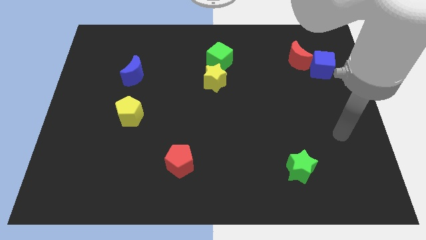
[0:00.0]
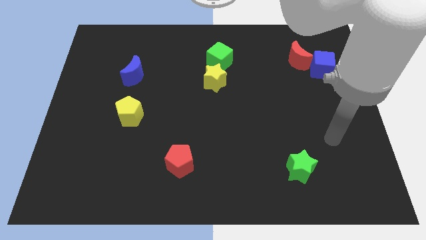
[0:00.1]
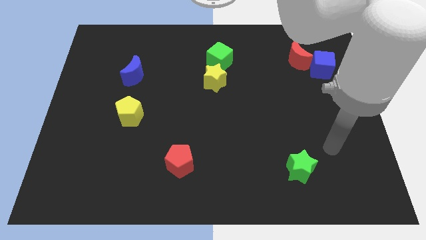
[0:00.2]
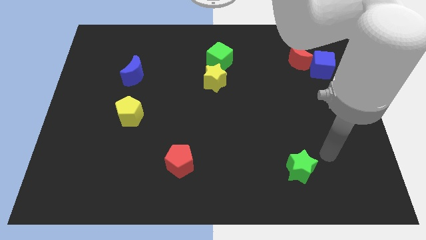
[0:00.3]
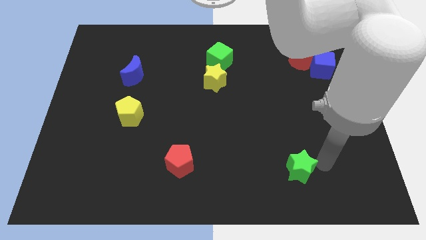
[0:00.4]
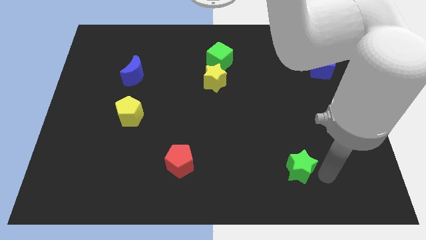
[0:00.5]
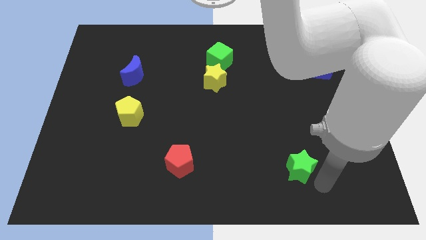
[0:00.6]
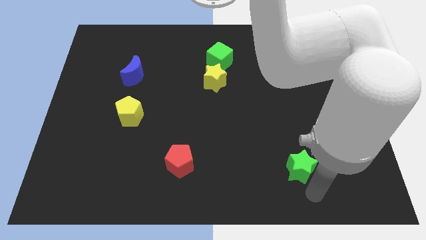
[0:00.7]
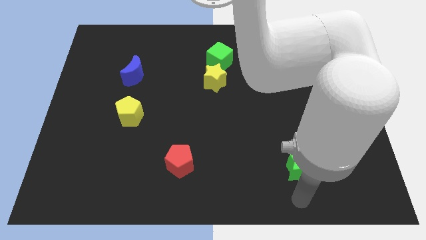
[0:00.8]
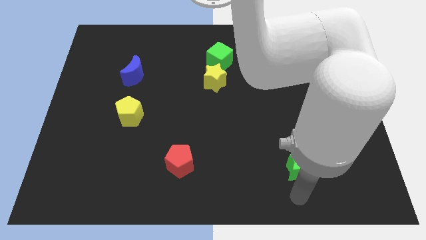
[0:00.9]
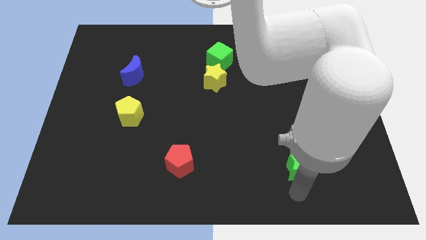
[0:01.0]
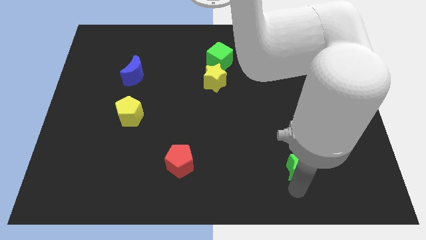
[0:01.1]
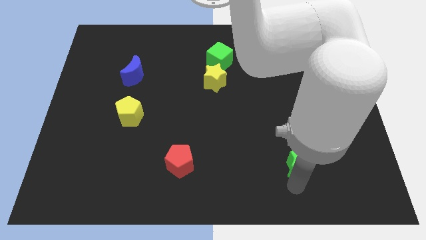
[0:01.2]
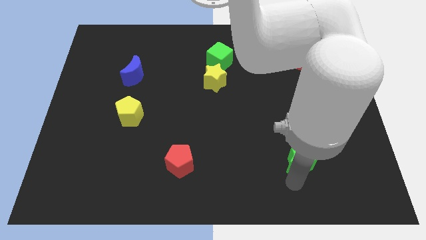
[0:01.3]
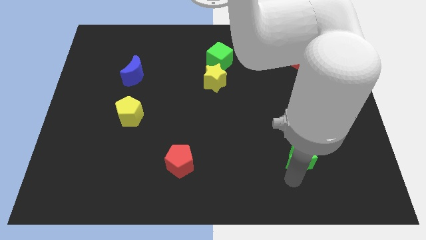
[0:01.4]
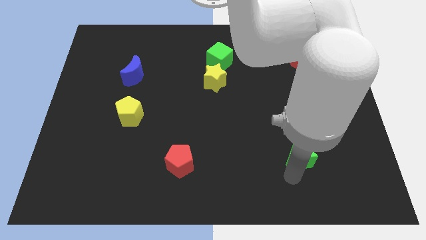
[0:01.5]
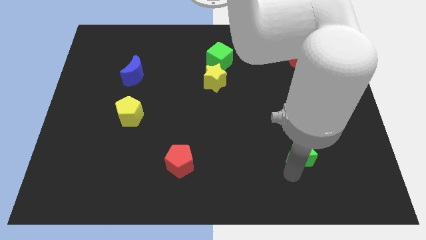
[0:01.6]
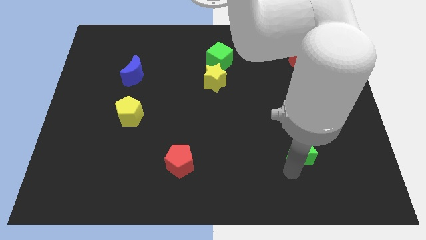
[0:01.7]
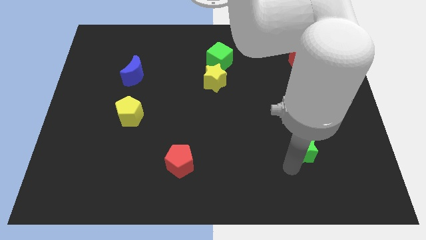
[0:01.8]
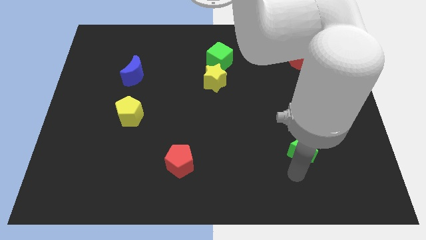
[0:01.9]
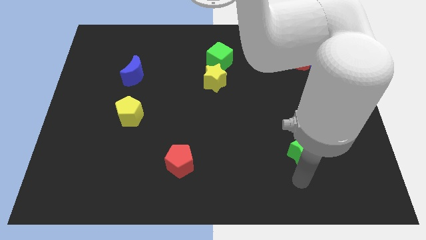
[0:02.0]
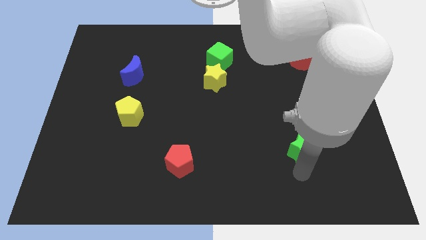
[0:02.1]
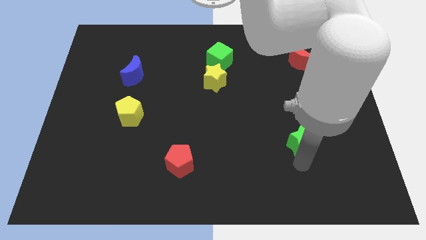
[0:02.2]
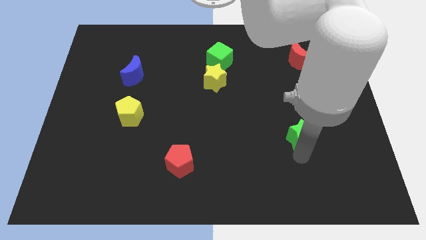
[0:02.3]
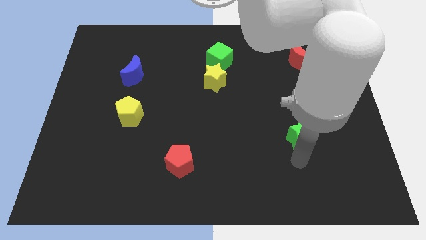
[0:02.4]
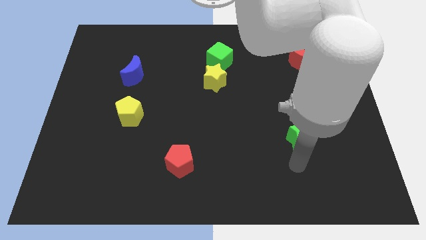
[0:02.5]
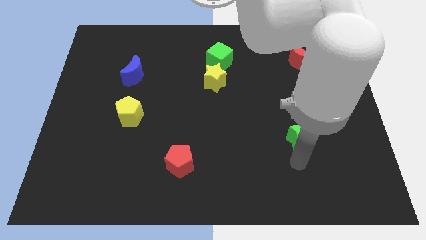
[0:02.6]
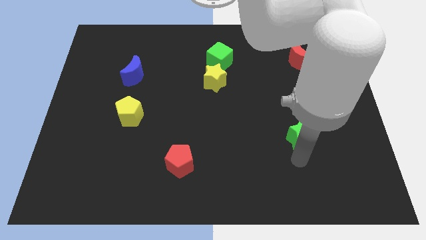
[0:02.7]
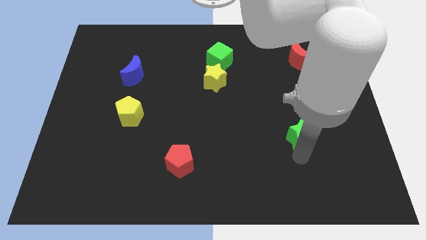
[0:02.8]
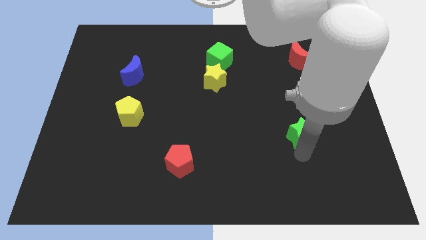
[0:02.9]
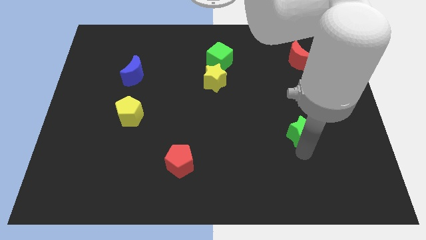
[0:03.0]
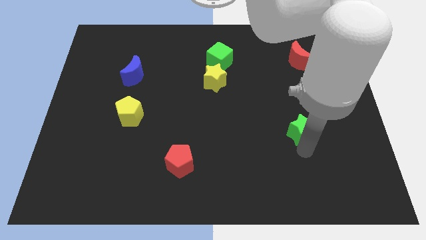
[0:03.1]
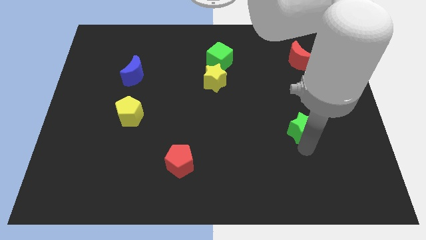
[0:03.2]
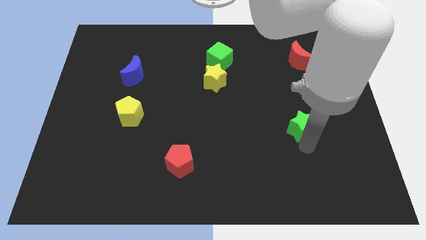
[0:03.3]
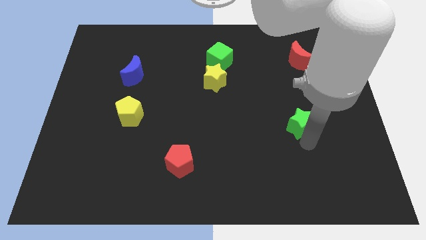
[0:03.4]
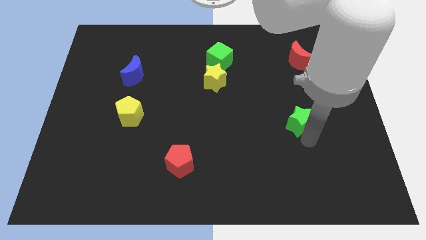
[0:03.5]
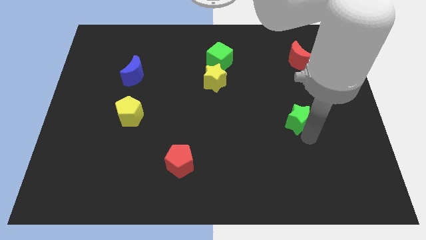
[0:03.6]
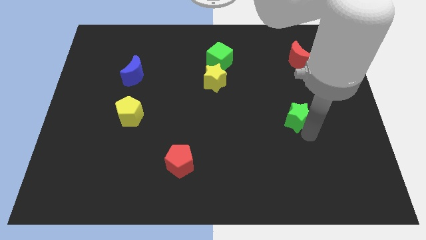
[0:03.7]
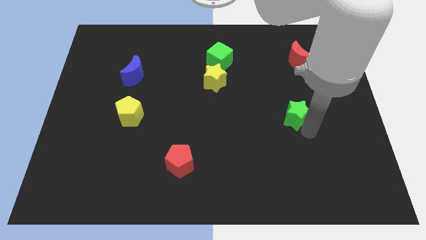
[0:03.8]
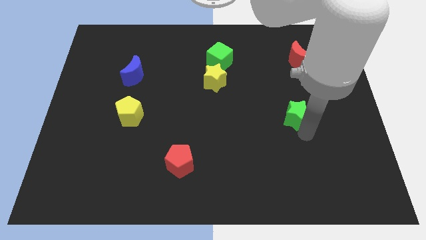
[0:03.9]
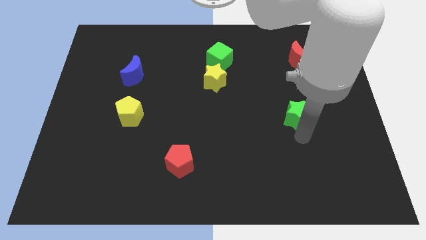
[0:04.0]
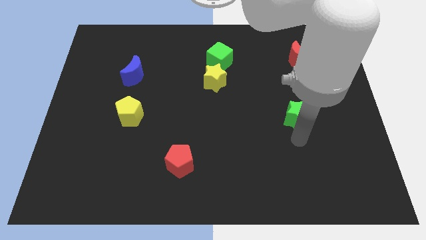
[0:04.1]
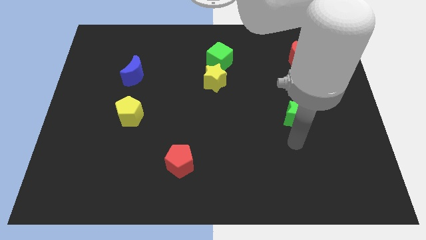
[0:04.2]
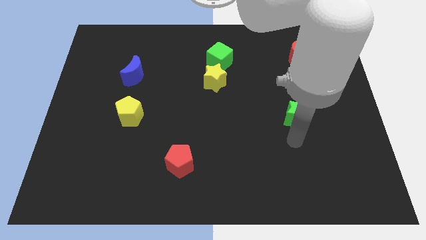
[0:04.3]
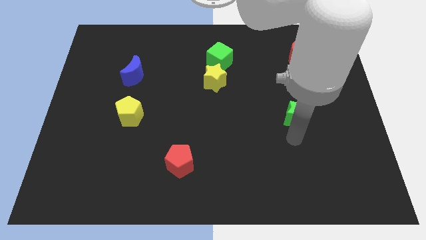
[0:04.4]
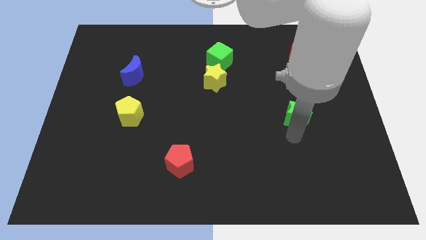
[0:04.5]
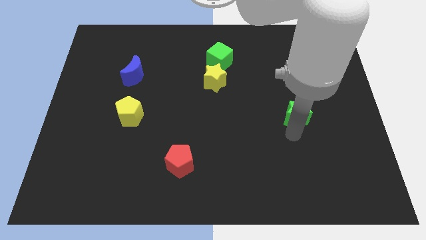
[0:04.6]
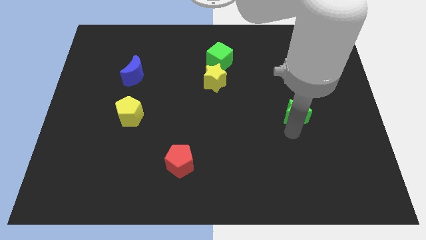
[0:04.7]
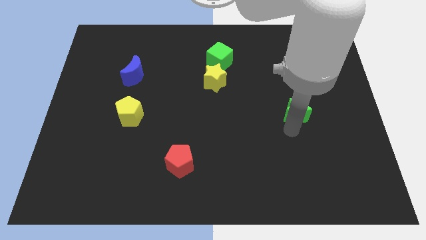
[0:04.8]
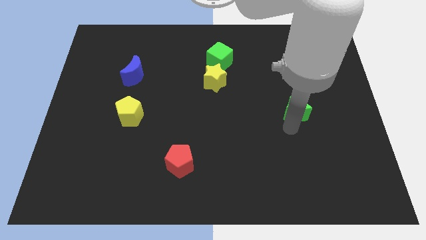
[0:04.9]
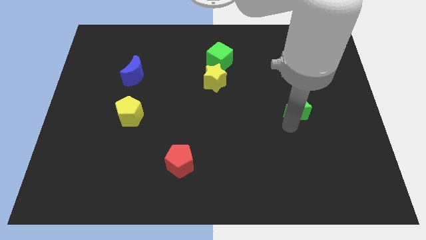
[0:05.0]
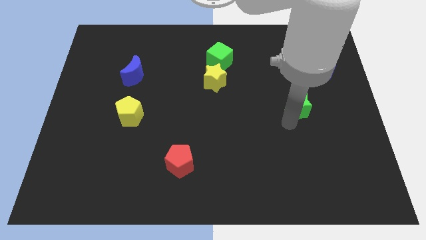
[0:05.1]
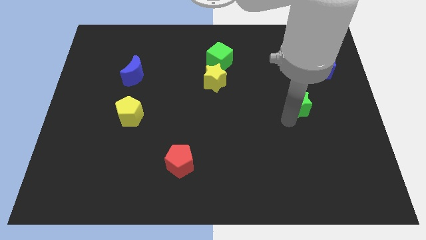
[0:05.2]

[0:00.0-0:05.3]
push the green star to the bottom side of the red moon

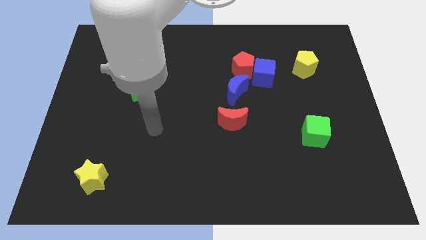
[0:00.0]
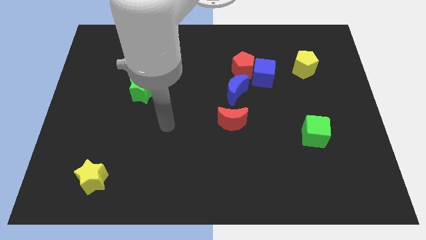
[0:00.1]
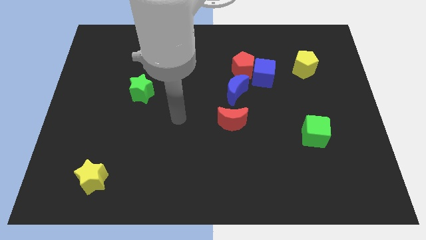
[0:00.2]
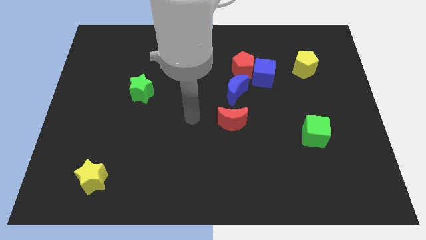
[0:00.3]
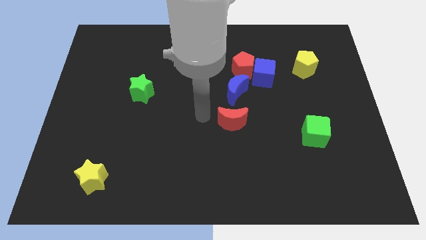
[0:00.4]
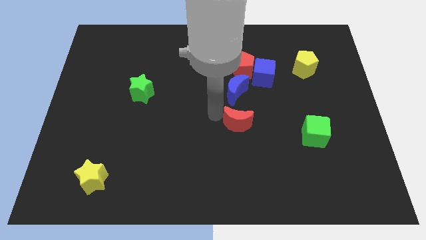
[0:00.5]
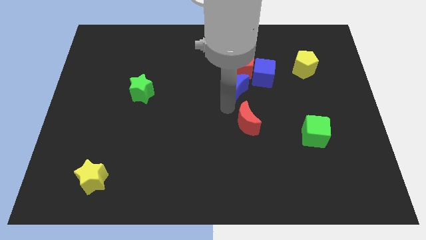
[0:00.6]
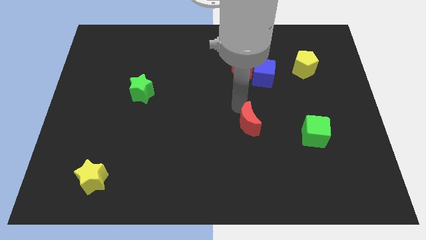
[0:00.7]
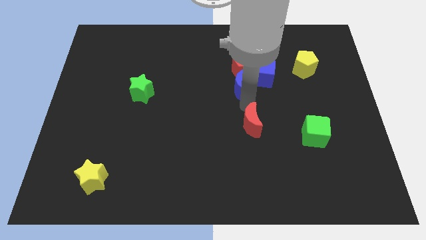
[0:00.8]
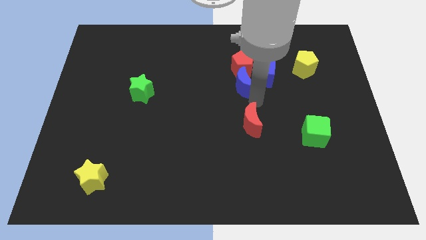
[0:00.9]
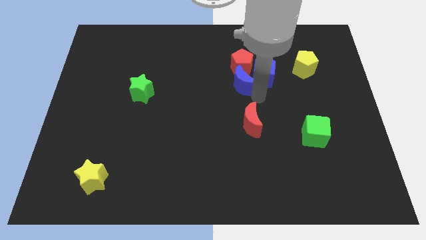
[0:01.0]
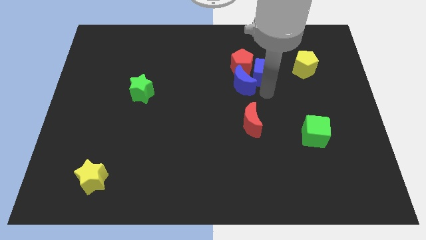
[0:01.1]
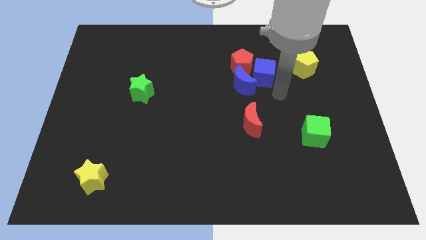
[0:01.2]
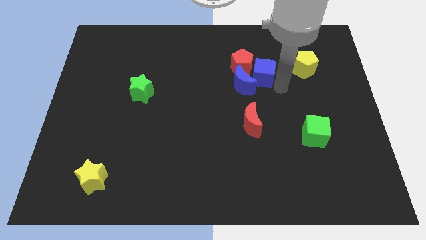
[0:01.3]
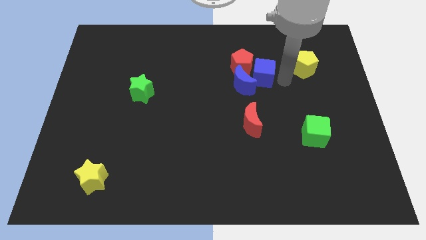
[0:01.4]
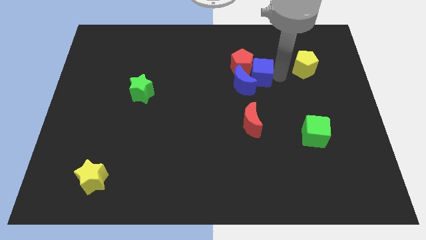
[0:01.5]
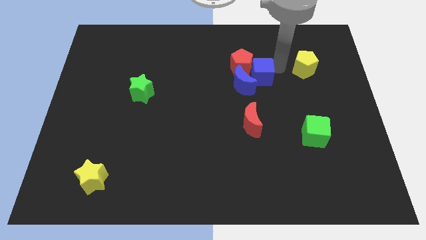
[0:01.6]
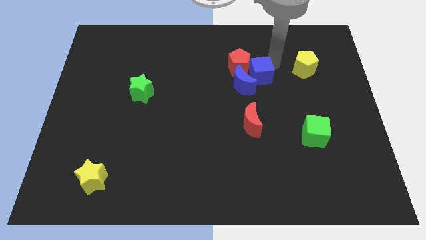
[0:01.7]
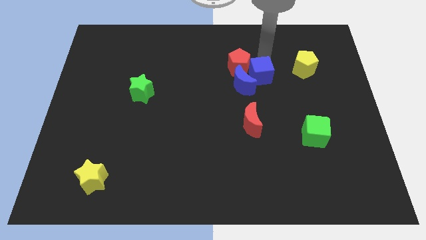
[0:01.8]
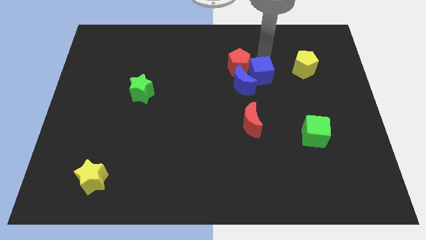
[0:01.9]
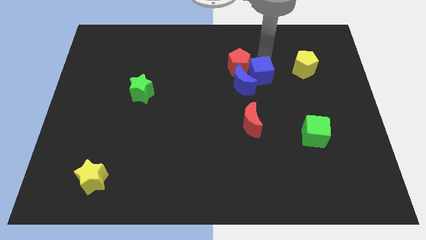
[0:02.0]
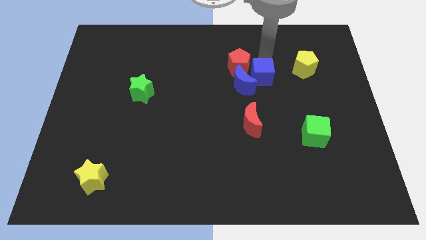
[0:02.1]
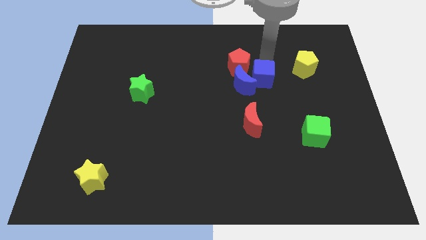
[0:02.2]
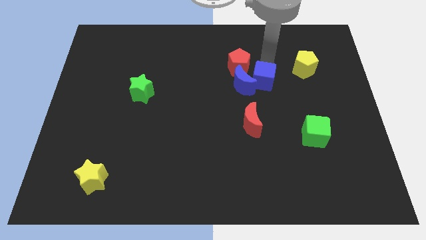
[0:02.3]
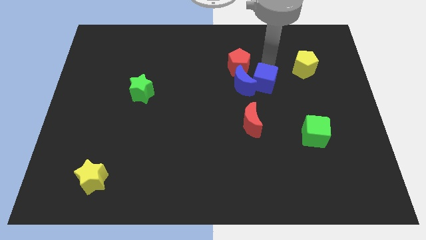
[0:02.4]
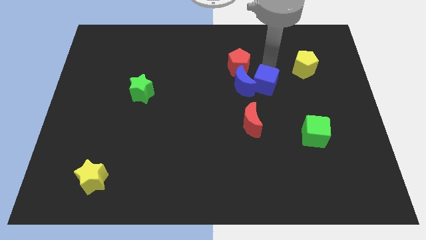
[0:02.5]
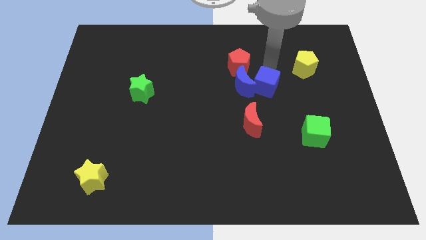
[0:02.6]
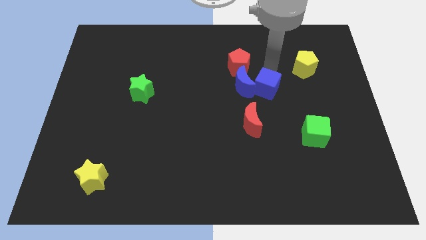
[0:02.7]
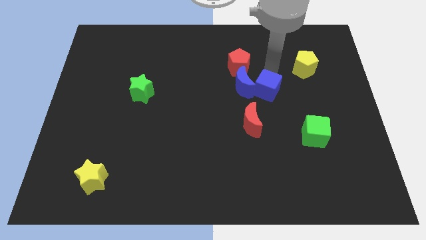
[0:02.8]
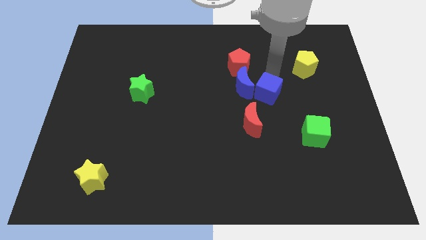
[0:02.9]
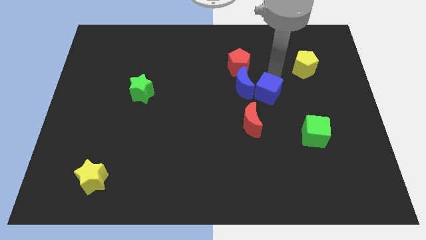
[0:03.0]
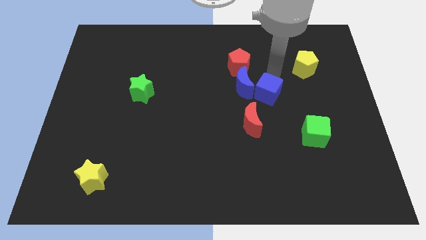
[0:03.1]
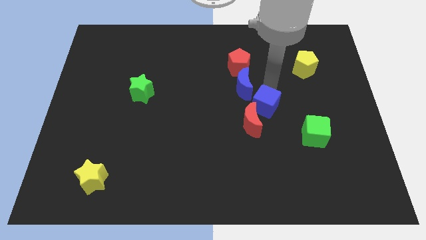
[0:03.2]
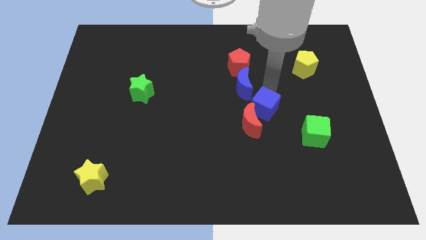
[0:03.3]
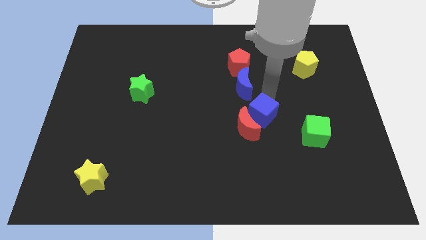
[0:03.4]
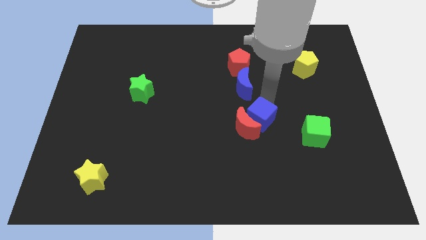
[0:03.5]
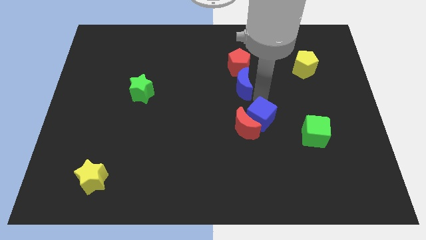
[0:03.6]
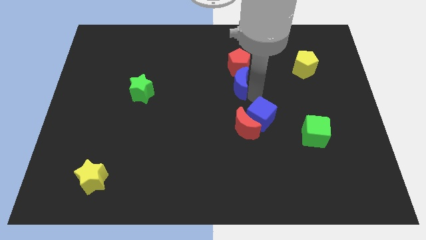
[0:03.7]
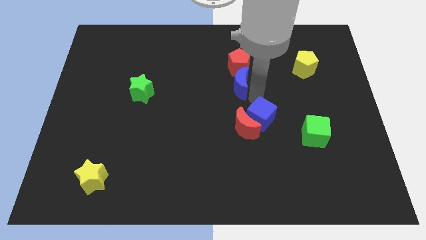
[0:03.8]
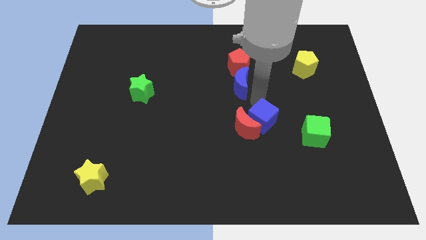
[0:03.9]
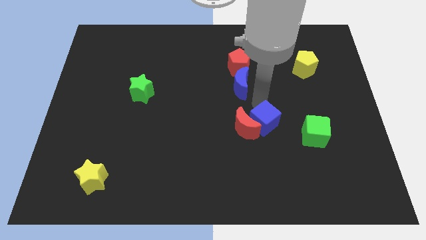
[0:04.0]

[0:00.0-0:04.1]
slide the blue cube diagonally down and to the right of the red moon
